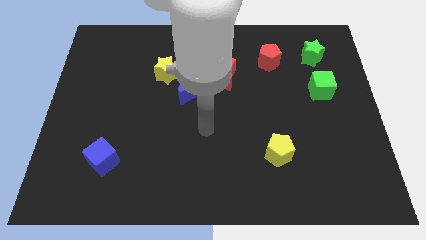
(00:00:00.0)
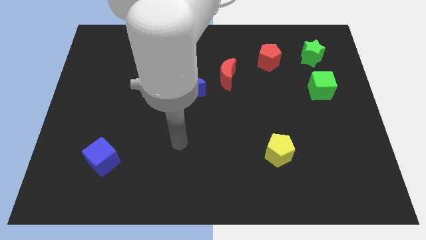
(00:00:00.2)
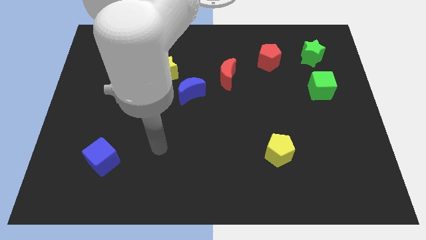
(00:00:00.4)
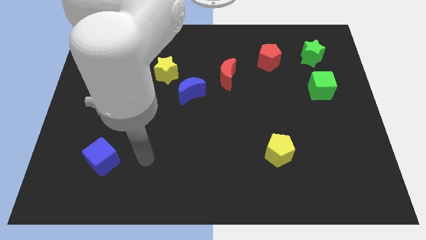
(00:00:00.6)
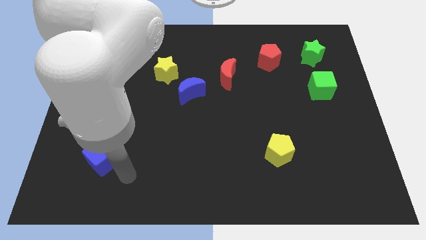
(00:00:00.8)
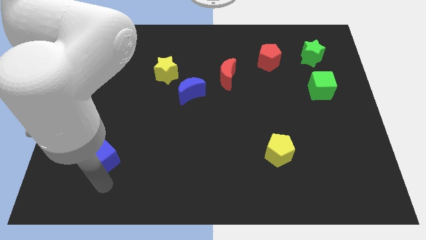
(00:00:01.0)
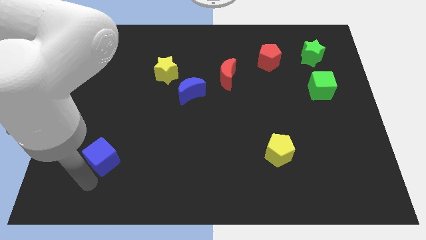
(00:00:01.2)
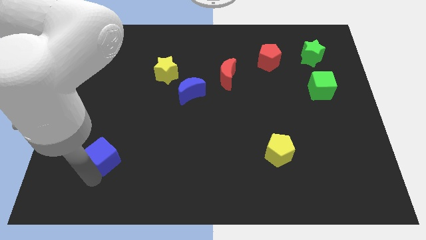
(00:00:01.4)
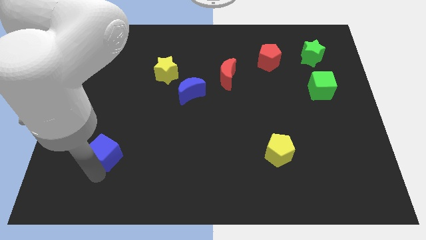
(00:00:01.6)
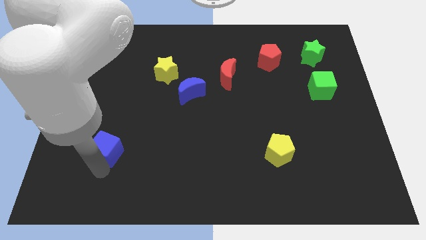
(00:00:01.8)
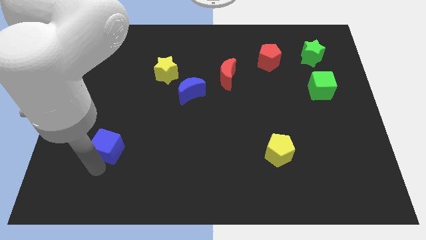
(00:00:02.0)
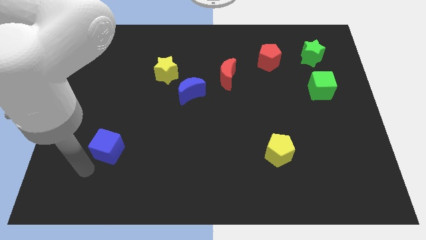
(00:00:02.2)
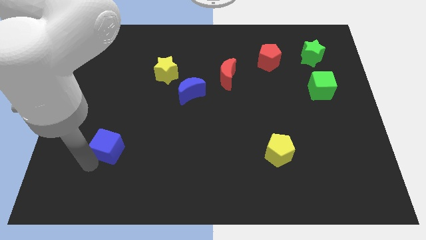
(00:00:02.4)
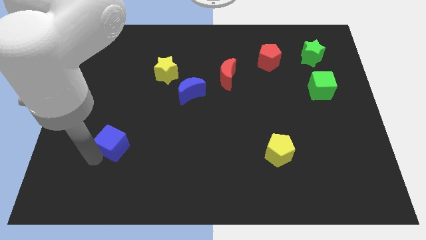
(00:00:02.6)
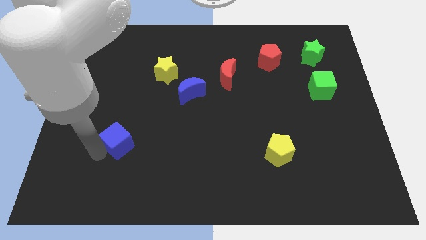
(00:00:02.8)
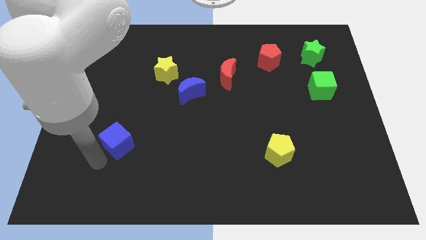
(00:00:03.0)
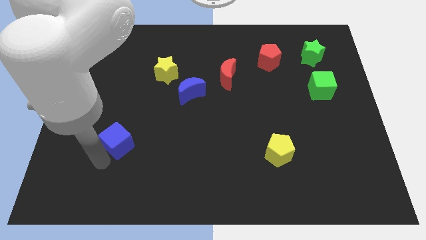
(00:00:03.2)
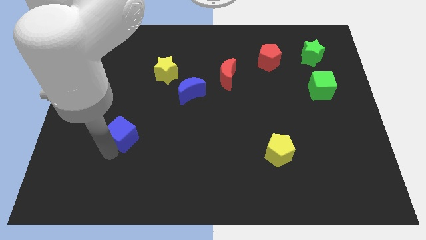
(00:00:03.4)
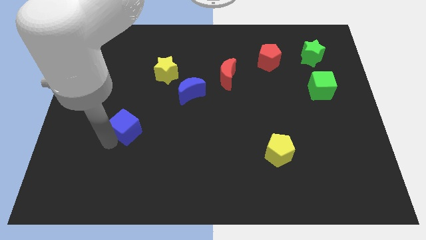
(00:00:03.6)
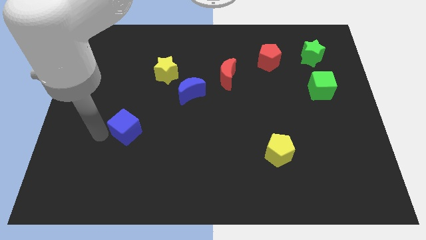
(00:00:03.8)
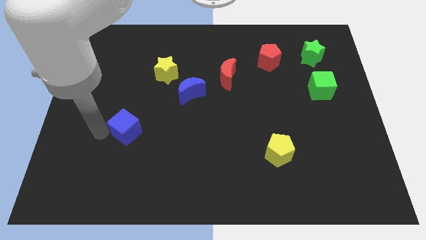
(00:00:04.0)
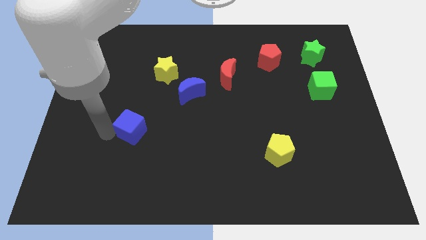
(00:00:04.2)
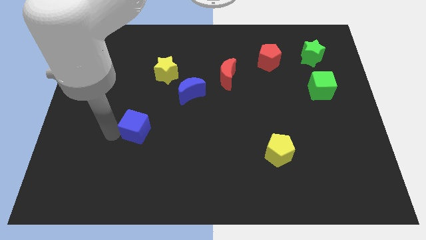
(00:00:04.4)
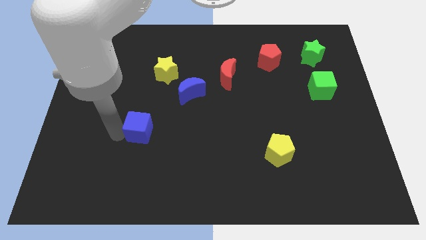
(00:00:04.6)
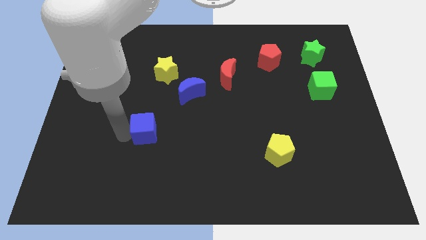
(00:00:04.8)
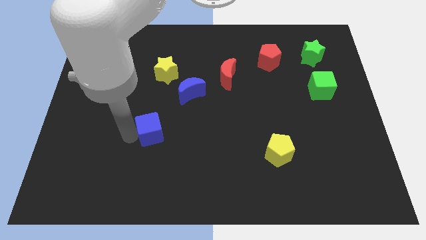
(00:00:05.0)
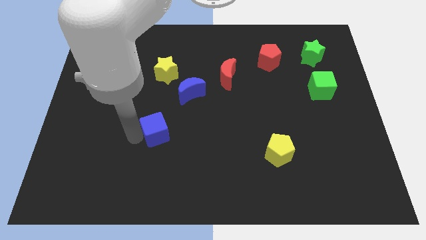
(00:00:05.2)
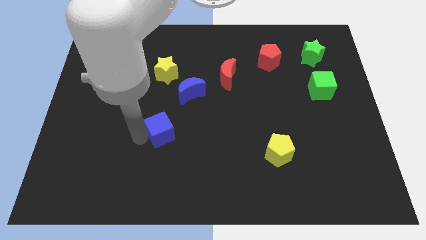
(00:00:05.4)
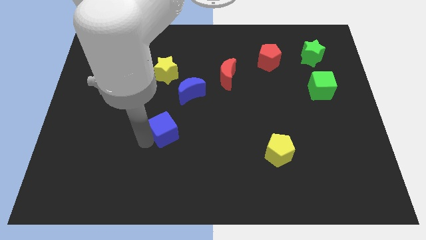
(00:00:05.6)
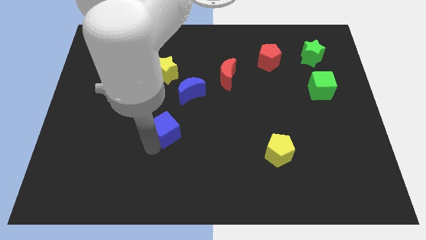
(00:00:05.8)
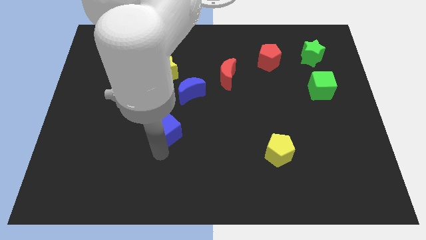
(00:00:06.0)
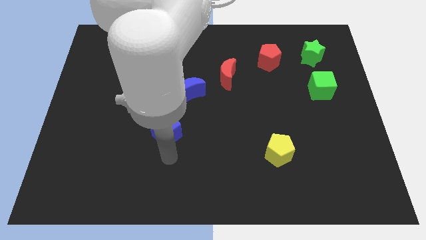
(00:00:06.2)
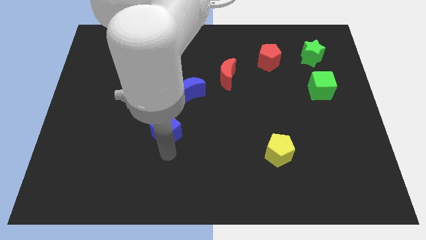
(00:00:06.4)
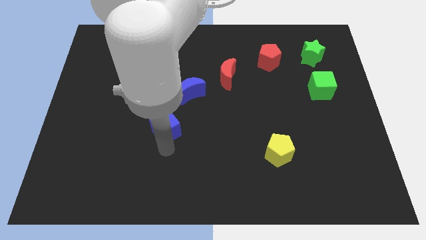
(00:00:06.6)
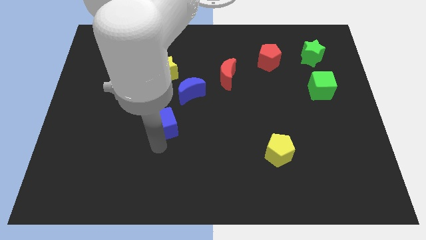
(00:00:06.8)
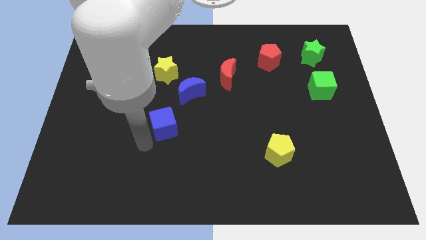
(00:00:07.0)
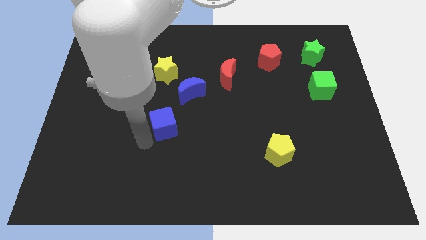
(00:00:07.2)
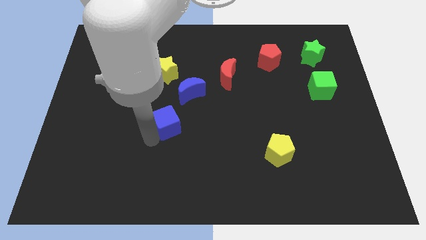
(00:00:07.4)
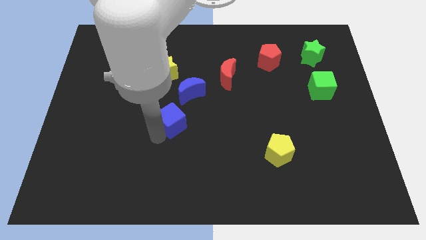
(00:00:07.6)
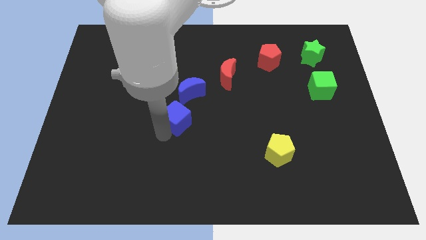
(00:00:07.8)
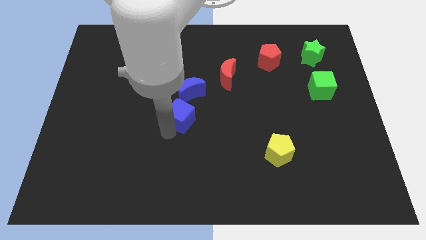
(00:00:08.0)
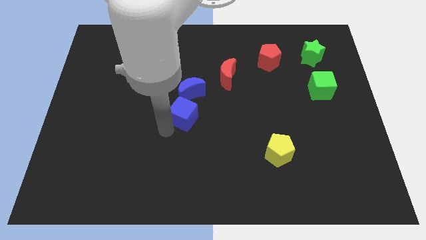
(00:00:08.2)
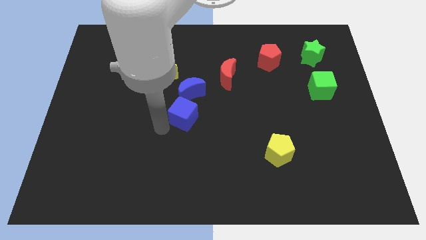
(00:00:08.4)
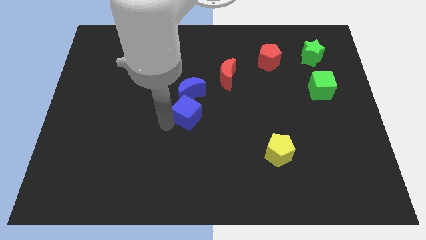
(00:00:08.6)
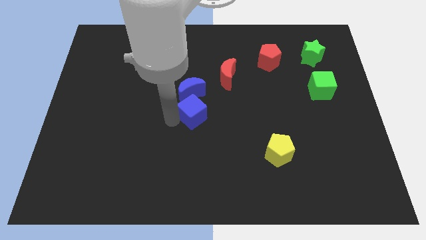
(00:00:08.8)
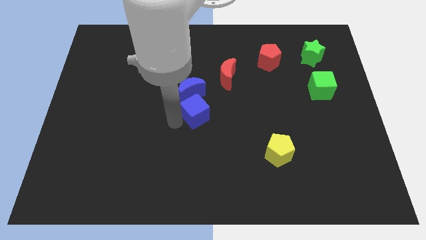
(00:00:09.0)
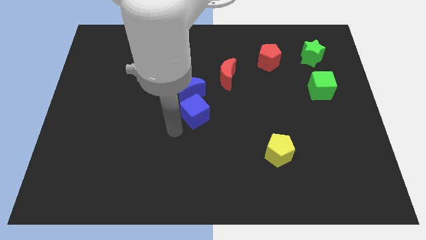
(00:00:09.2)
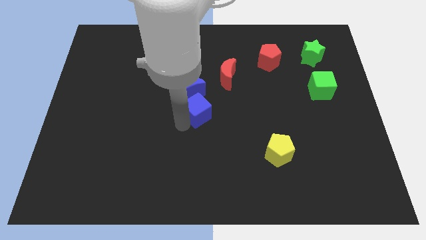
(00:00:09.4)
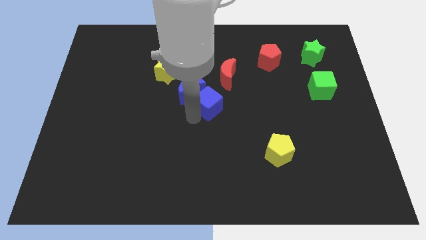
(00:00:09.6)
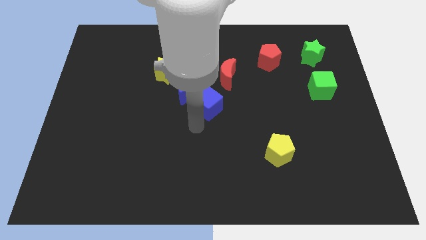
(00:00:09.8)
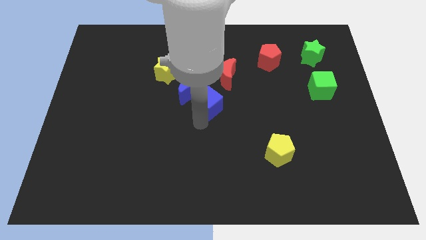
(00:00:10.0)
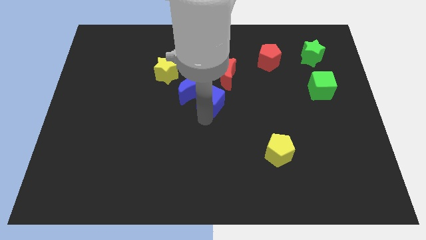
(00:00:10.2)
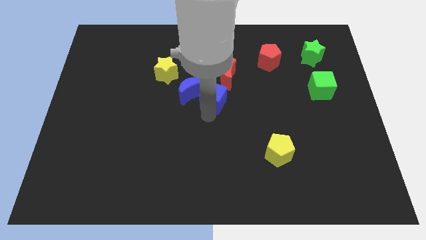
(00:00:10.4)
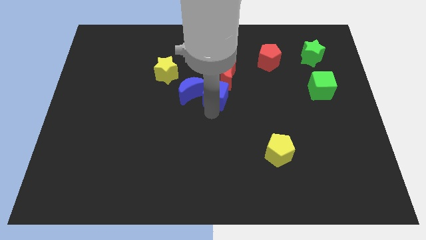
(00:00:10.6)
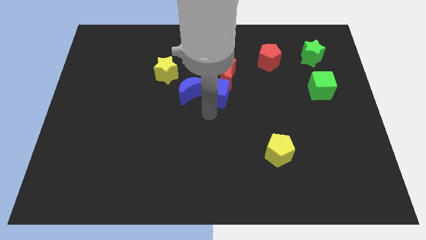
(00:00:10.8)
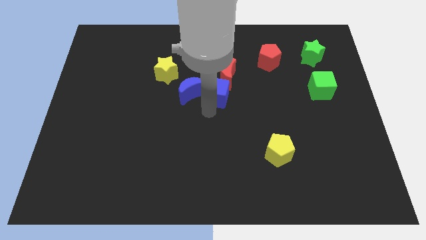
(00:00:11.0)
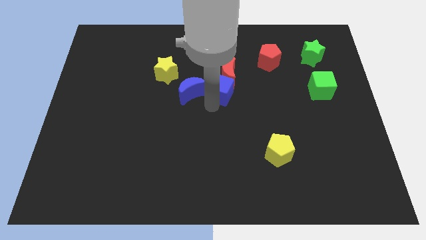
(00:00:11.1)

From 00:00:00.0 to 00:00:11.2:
push the blue cube close to the red moon

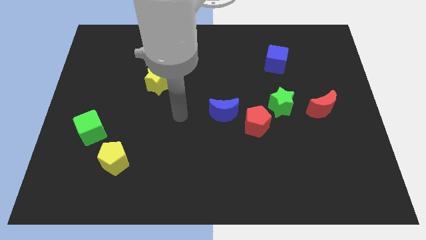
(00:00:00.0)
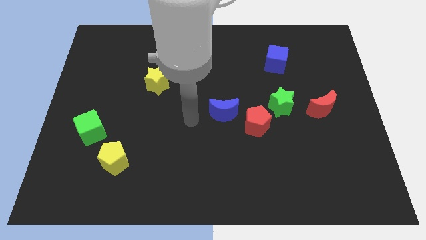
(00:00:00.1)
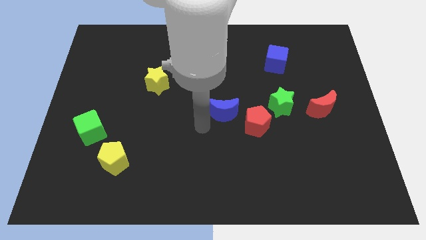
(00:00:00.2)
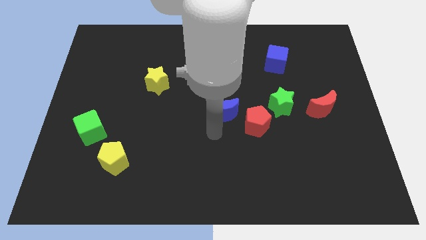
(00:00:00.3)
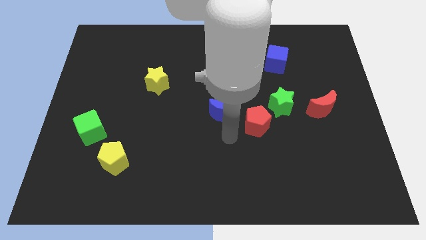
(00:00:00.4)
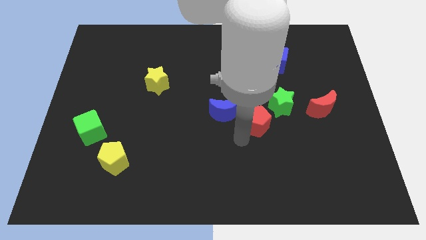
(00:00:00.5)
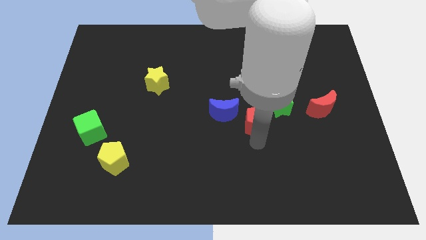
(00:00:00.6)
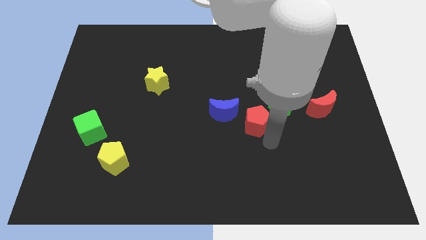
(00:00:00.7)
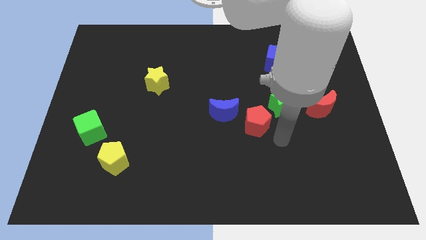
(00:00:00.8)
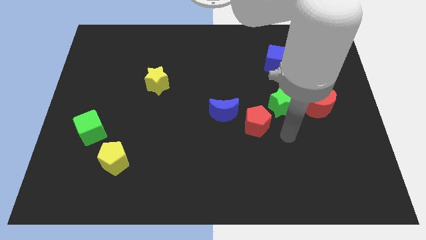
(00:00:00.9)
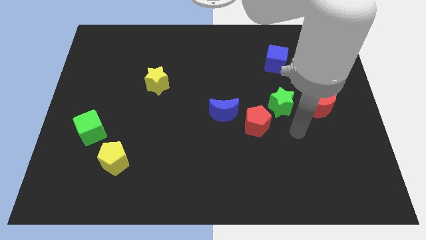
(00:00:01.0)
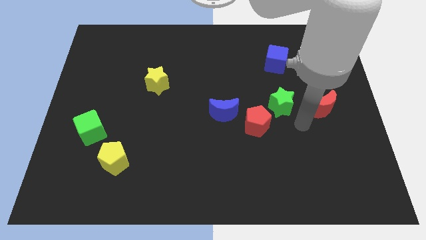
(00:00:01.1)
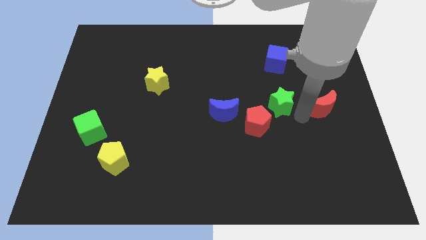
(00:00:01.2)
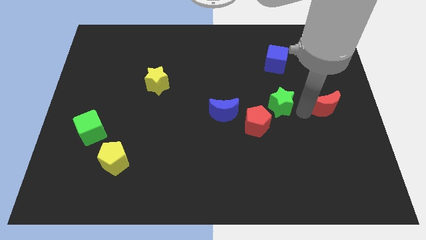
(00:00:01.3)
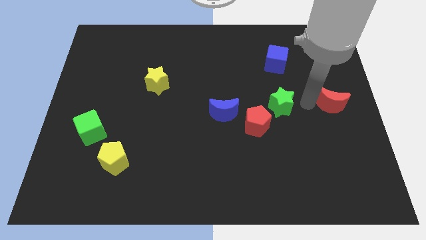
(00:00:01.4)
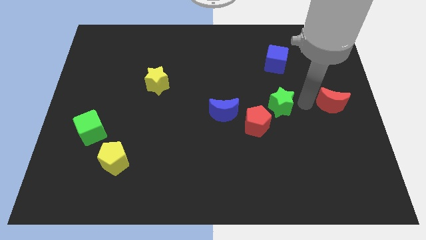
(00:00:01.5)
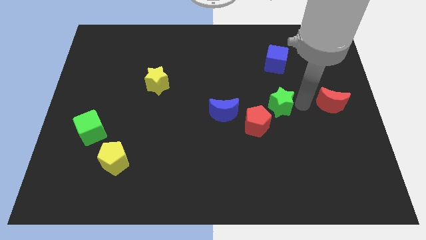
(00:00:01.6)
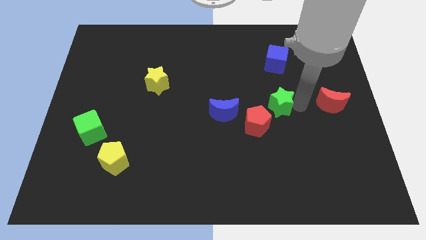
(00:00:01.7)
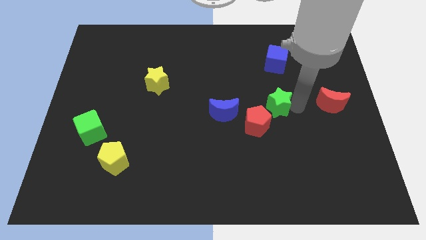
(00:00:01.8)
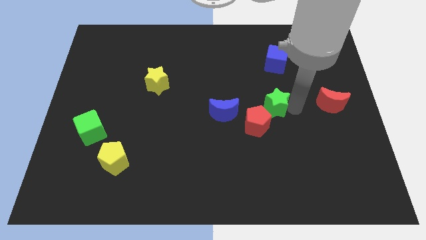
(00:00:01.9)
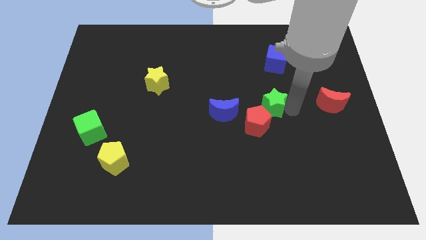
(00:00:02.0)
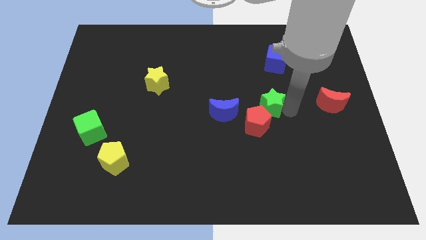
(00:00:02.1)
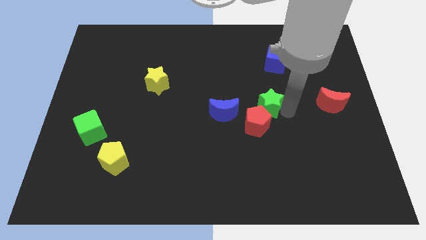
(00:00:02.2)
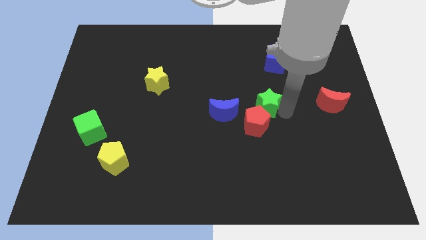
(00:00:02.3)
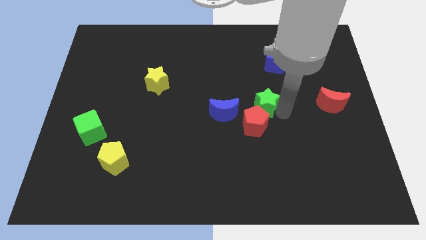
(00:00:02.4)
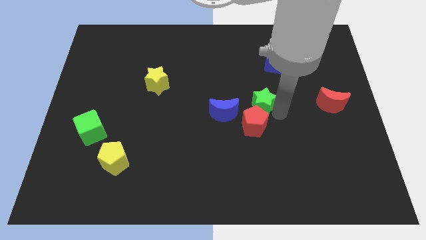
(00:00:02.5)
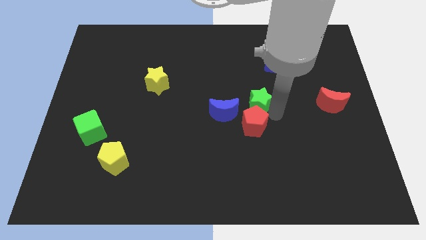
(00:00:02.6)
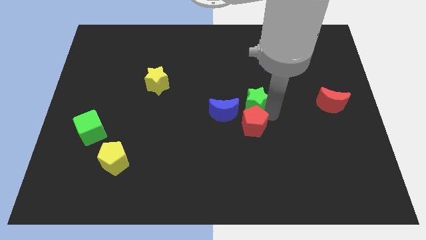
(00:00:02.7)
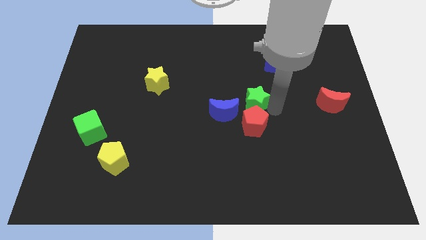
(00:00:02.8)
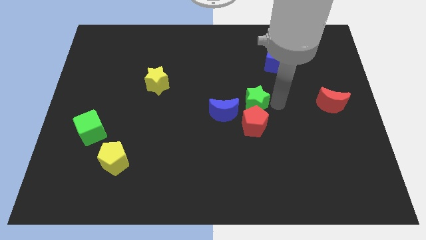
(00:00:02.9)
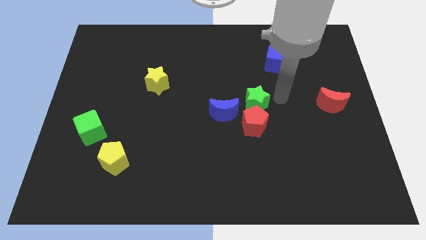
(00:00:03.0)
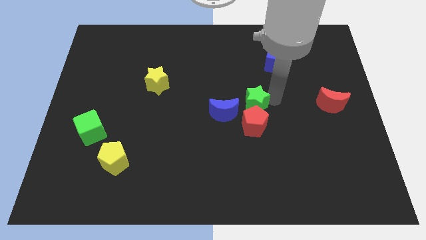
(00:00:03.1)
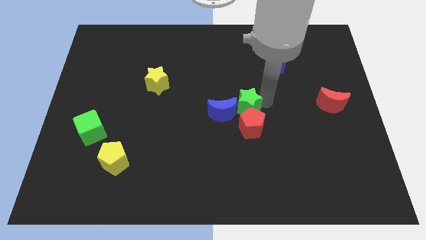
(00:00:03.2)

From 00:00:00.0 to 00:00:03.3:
slide the green star towards the blue moon
